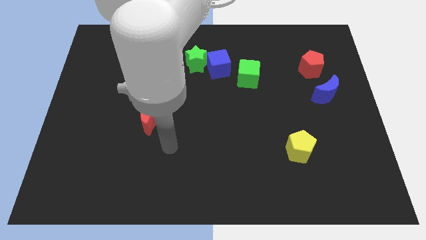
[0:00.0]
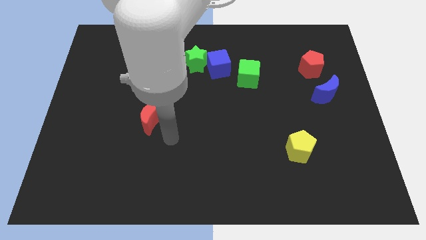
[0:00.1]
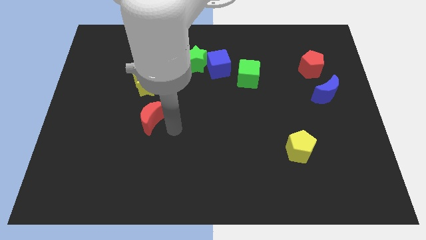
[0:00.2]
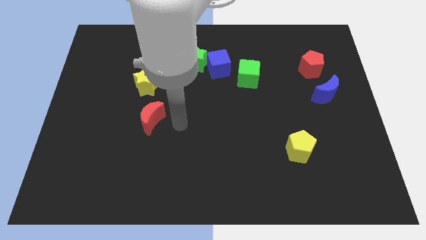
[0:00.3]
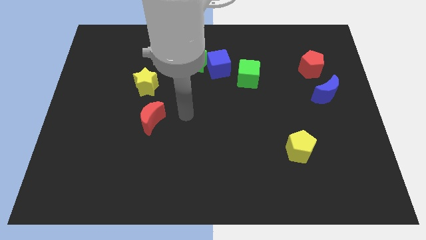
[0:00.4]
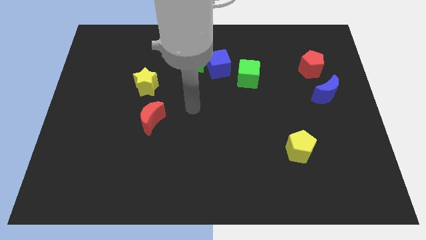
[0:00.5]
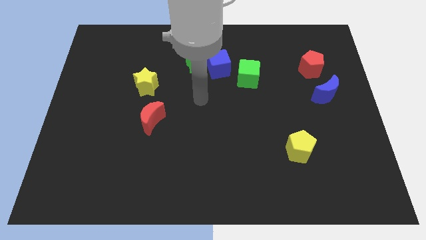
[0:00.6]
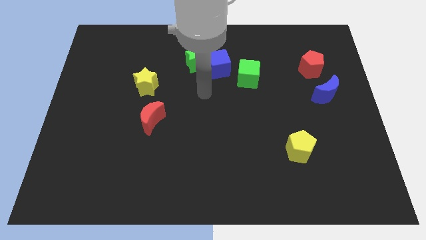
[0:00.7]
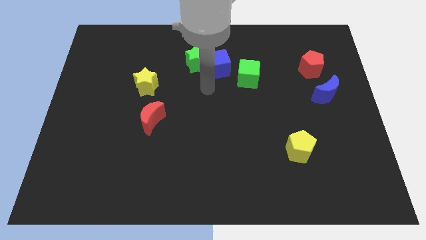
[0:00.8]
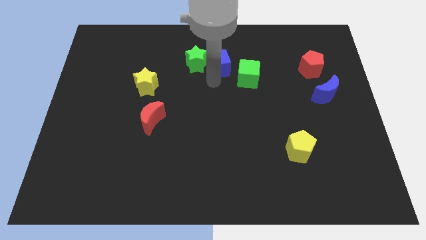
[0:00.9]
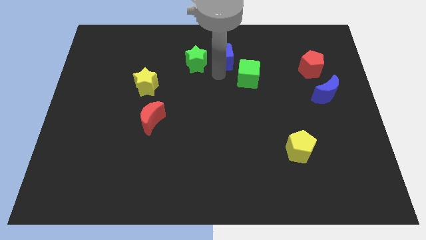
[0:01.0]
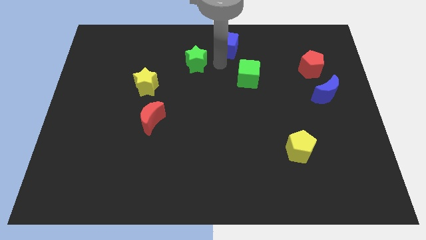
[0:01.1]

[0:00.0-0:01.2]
separate the green star from the blue cube

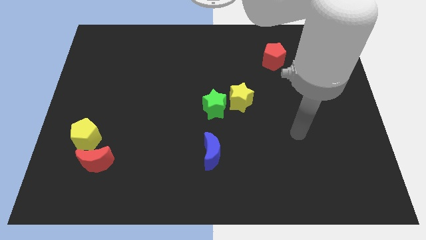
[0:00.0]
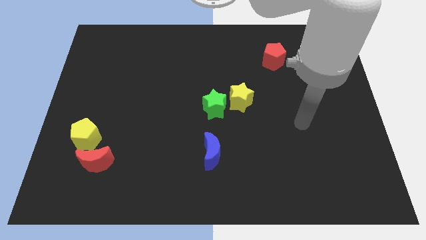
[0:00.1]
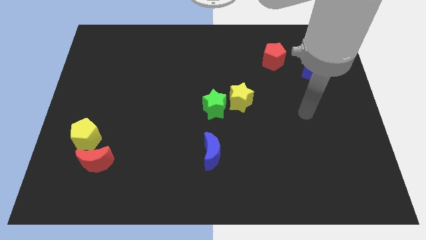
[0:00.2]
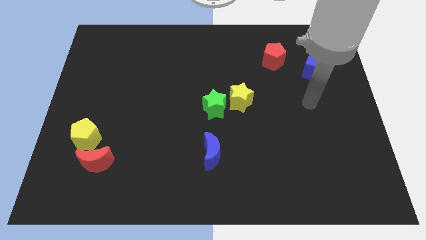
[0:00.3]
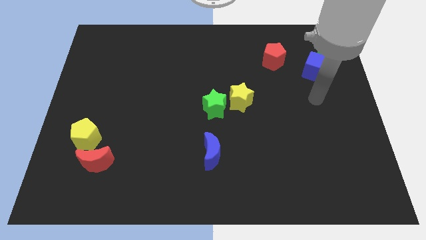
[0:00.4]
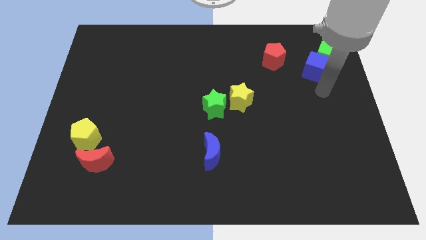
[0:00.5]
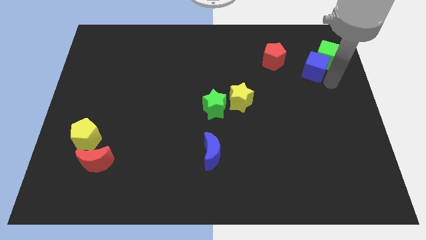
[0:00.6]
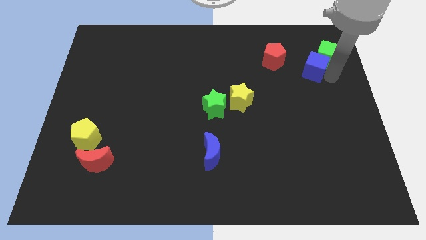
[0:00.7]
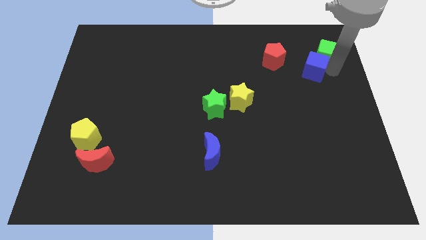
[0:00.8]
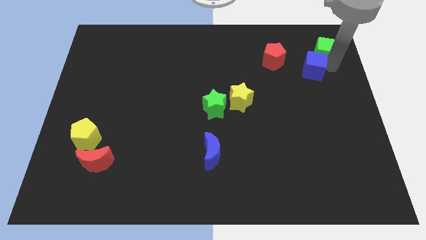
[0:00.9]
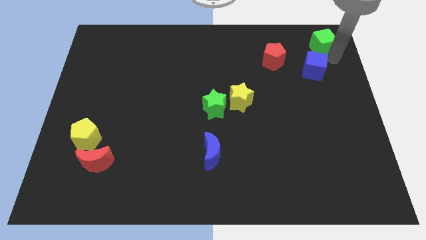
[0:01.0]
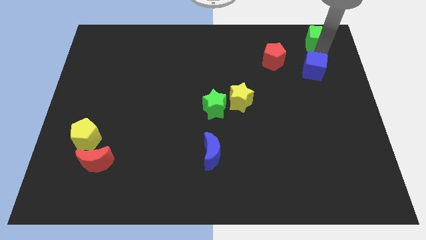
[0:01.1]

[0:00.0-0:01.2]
move the blue cube away from the green cube

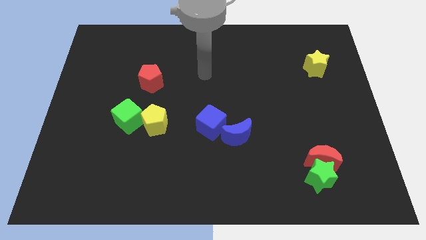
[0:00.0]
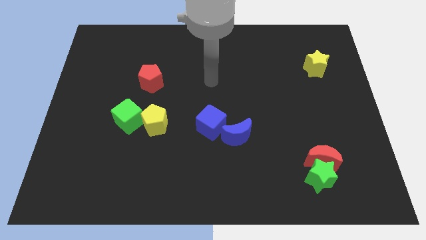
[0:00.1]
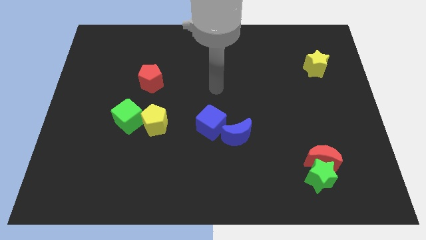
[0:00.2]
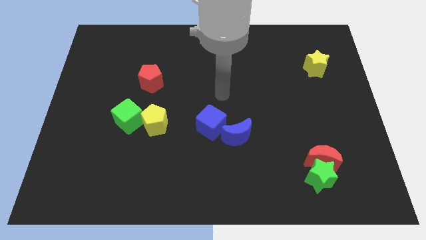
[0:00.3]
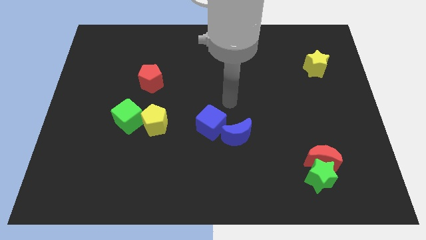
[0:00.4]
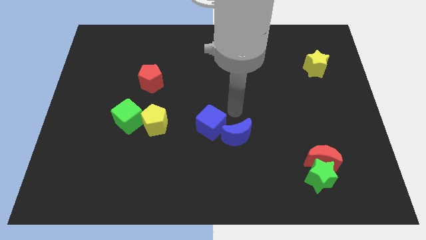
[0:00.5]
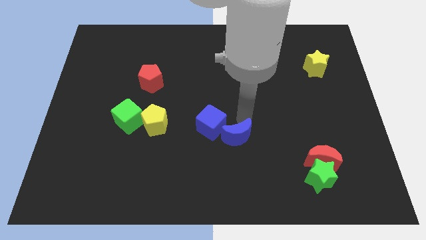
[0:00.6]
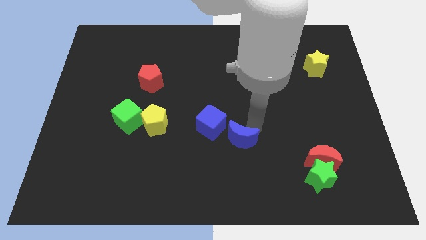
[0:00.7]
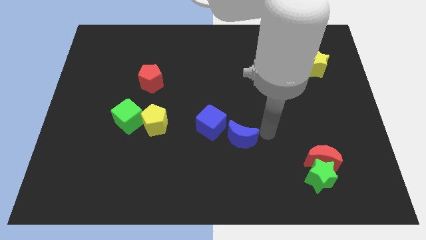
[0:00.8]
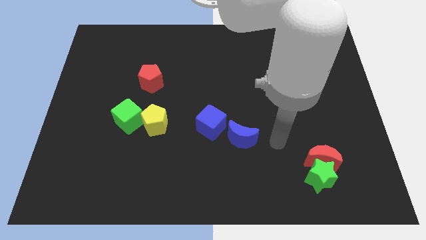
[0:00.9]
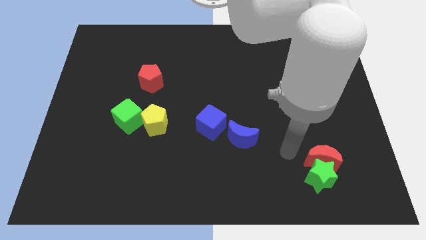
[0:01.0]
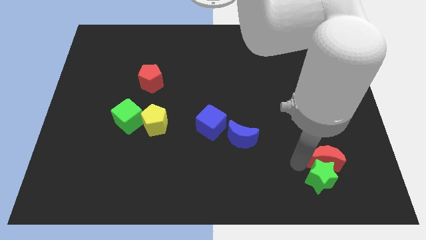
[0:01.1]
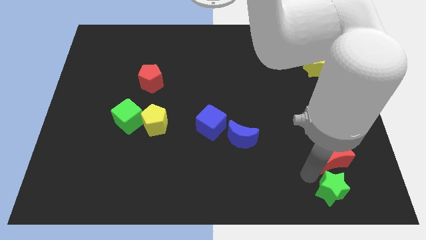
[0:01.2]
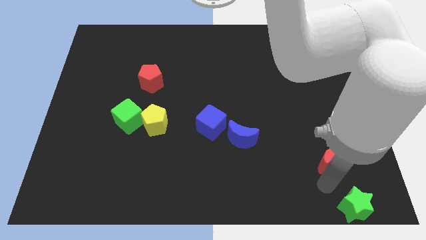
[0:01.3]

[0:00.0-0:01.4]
move the red moon away from the green star

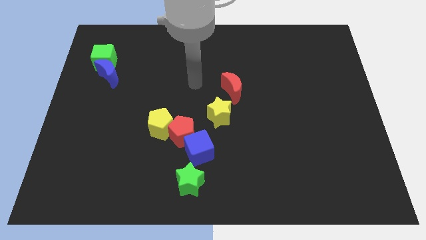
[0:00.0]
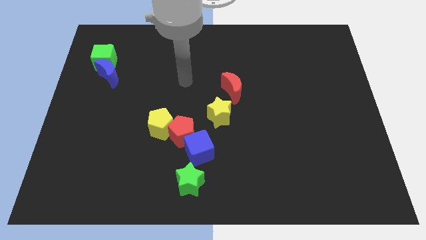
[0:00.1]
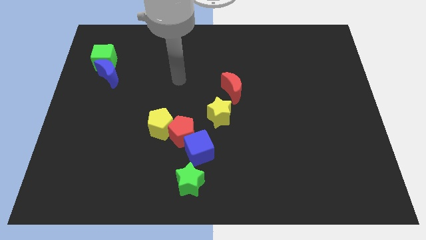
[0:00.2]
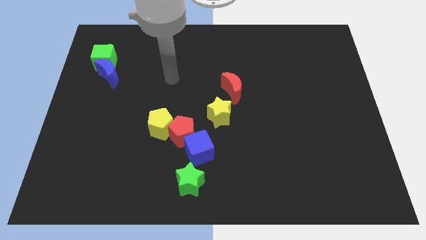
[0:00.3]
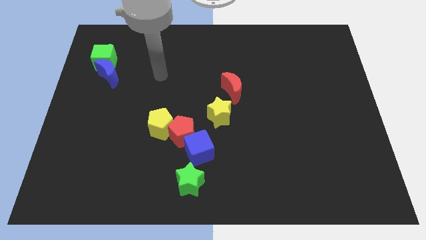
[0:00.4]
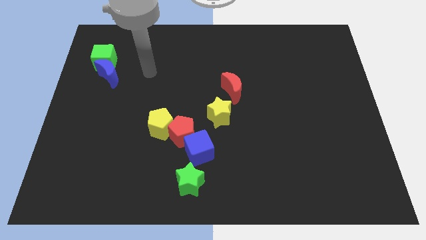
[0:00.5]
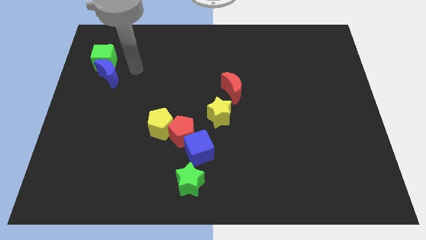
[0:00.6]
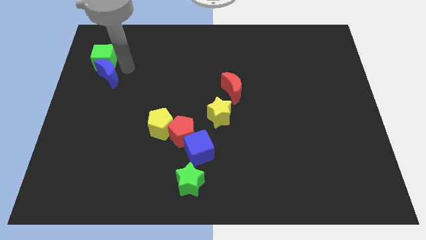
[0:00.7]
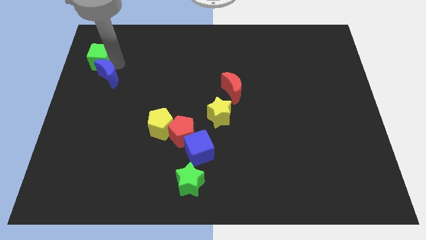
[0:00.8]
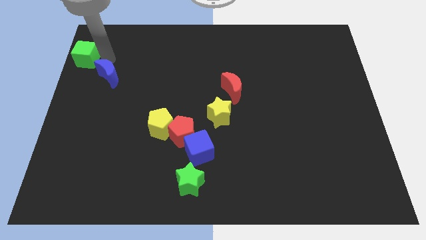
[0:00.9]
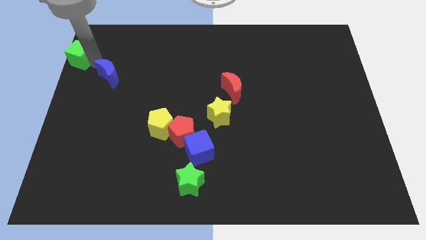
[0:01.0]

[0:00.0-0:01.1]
move the blue moon away from the green cube

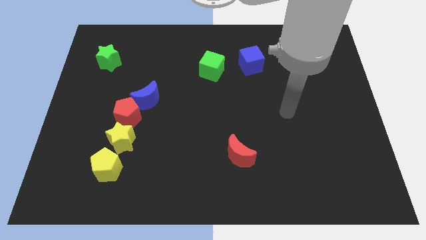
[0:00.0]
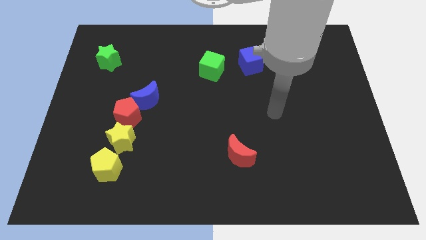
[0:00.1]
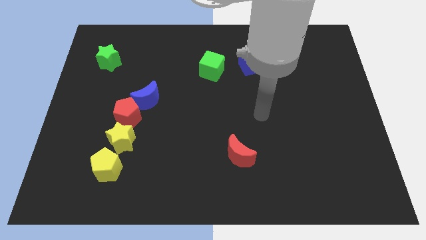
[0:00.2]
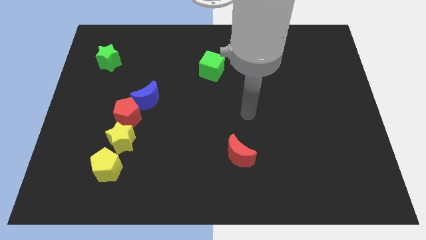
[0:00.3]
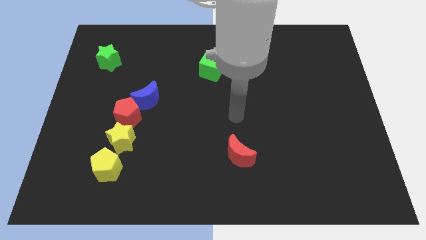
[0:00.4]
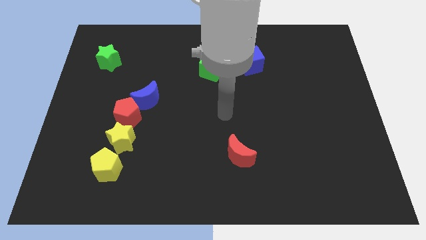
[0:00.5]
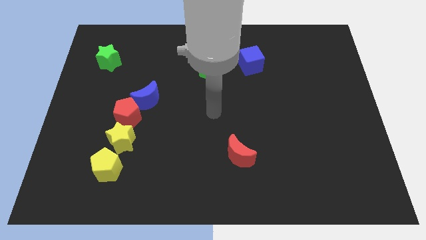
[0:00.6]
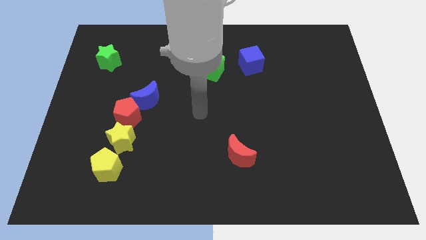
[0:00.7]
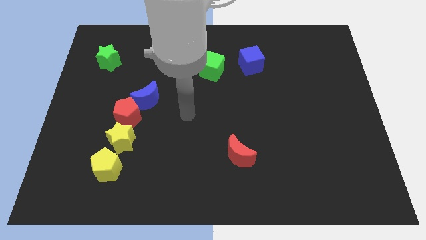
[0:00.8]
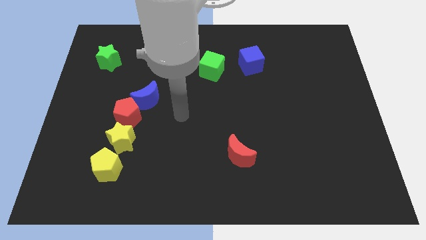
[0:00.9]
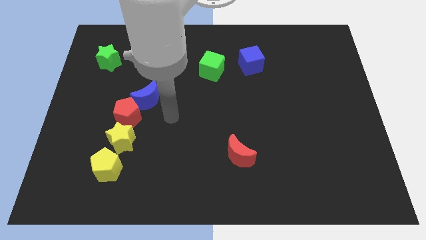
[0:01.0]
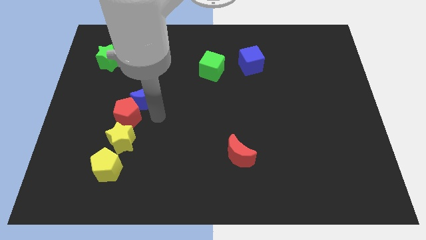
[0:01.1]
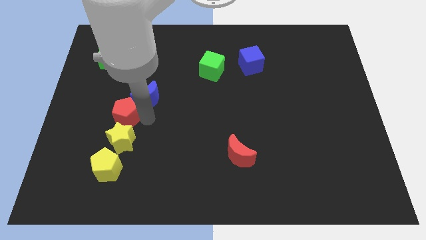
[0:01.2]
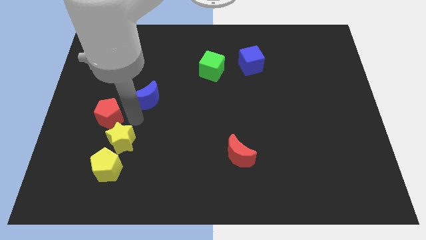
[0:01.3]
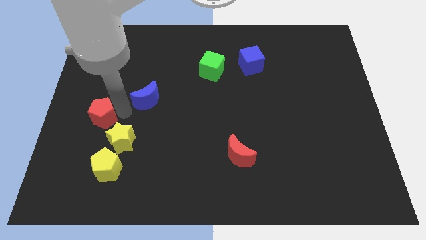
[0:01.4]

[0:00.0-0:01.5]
separate the blue moon from the red pentagon

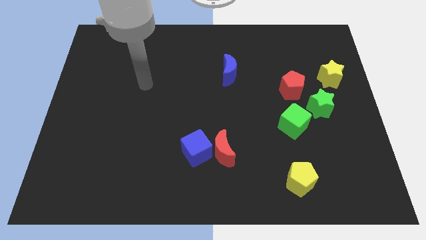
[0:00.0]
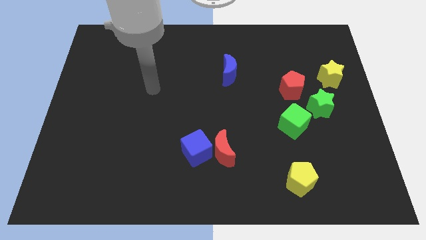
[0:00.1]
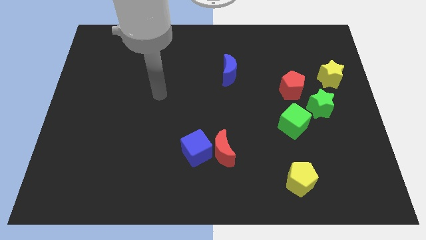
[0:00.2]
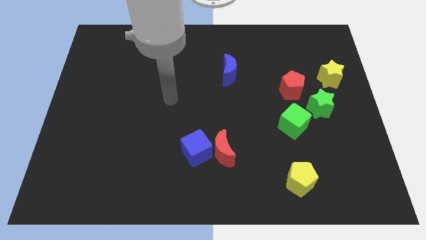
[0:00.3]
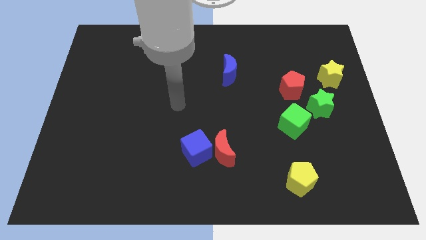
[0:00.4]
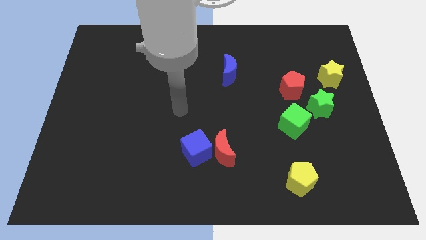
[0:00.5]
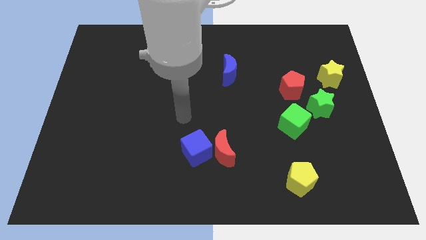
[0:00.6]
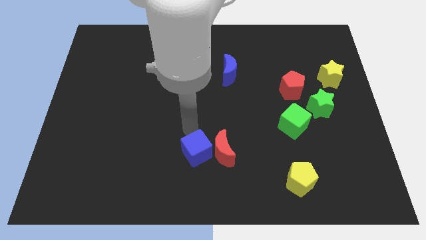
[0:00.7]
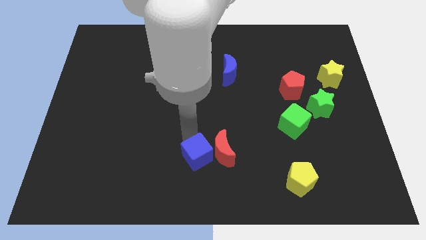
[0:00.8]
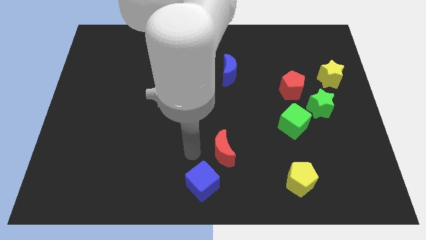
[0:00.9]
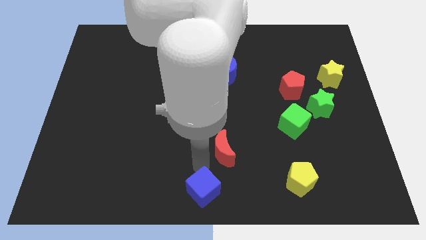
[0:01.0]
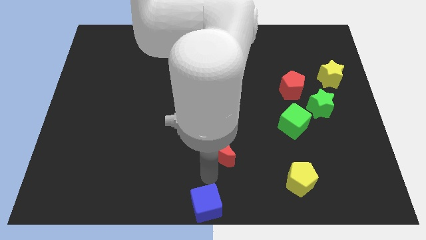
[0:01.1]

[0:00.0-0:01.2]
move the red moon away from the blue cube

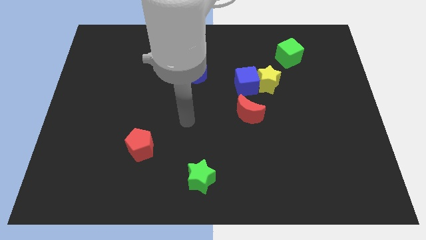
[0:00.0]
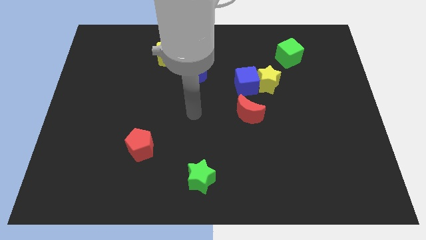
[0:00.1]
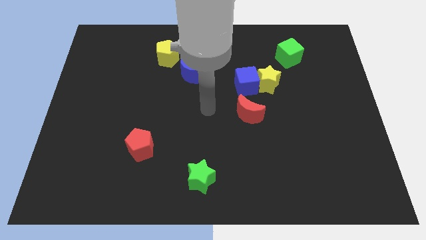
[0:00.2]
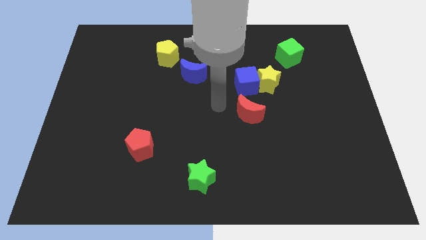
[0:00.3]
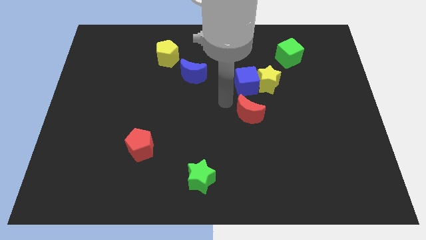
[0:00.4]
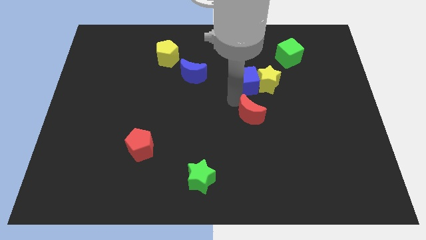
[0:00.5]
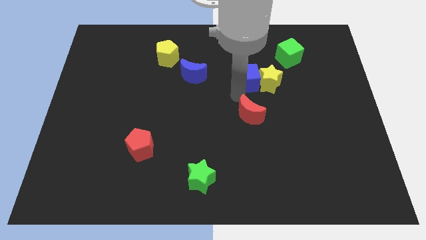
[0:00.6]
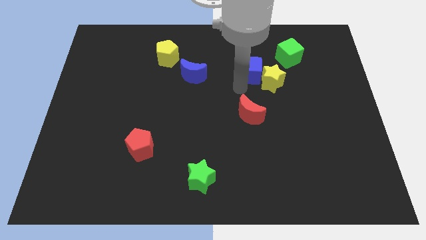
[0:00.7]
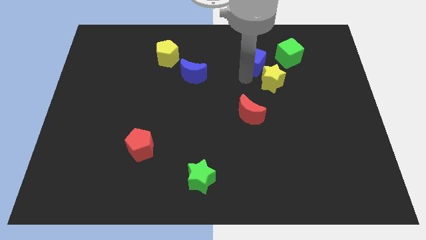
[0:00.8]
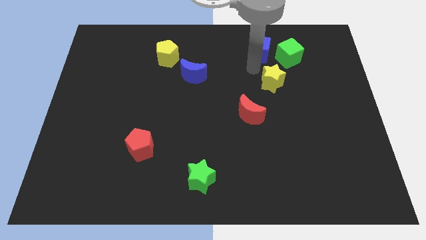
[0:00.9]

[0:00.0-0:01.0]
move the yellow star away from the blue cube

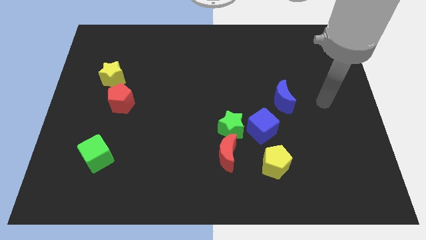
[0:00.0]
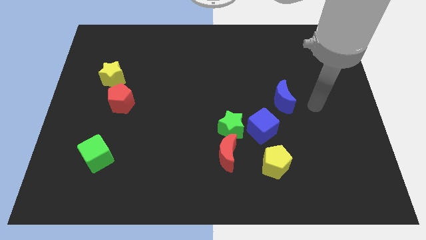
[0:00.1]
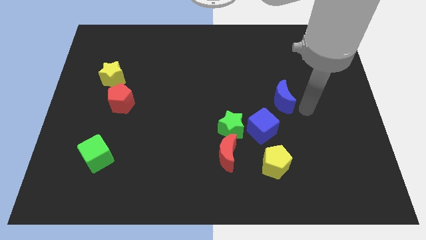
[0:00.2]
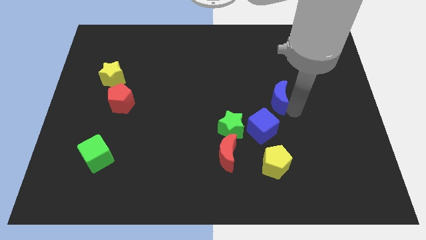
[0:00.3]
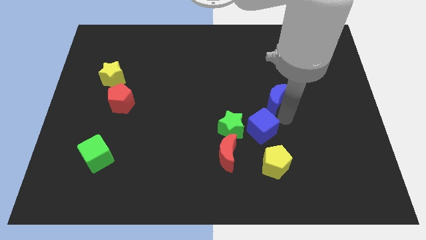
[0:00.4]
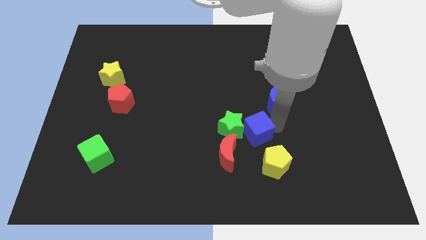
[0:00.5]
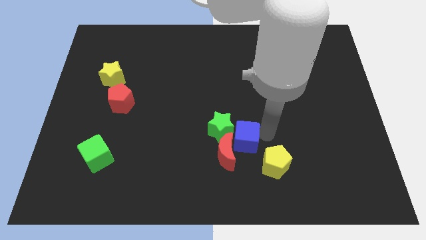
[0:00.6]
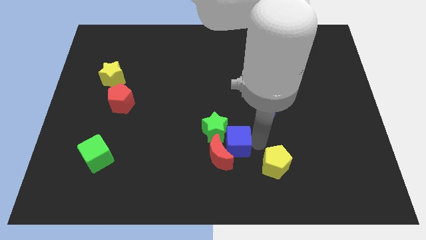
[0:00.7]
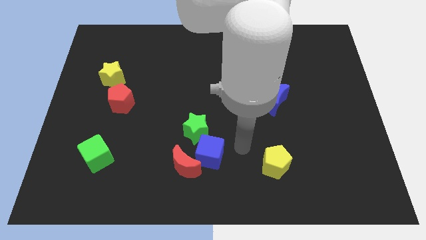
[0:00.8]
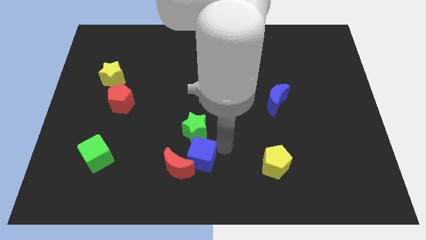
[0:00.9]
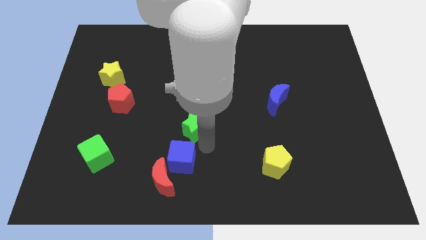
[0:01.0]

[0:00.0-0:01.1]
pull the green star apart from the red moon and blue cube
